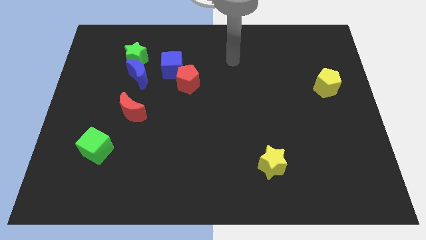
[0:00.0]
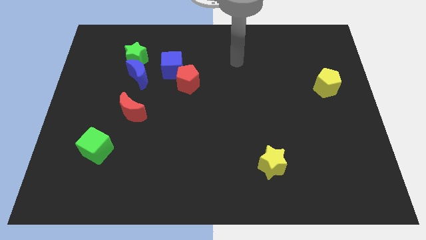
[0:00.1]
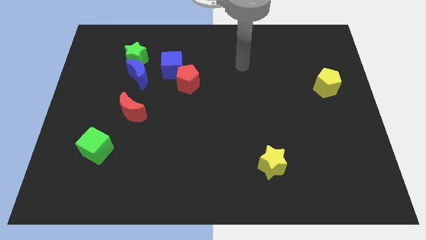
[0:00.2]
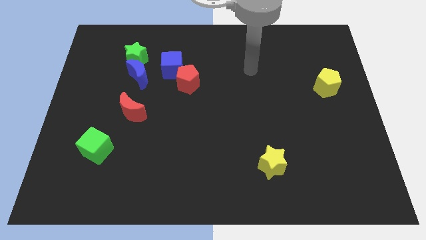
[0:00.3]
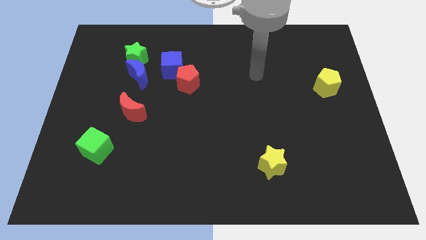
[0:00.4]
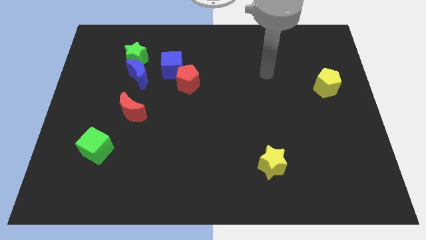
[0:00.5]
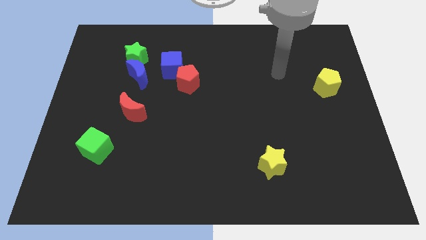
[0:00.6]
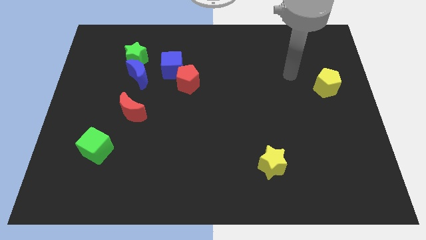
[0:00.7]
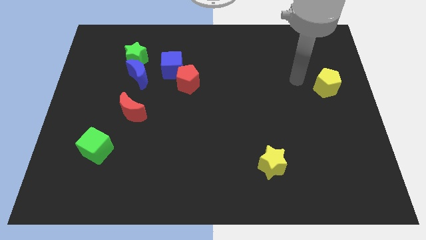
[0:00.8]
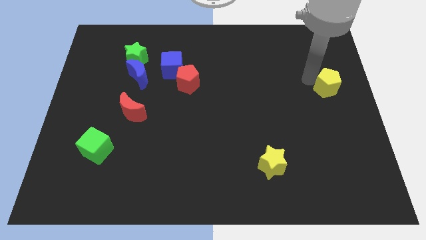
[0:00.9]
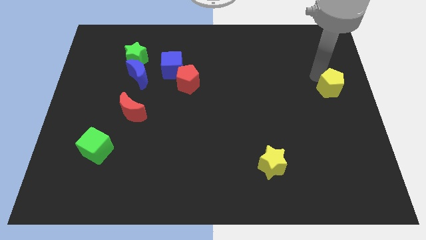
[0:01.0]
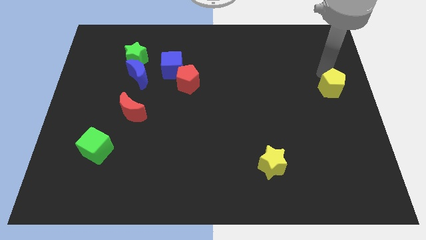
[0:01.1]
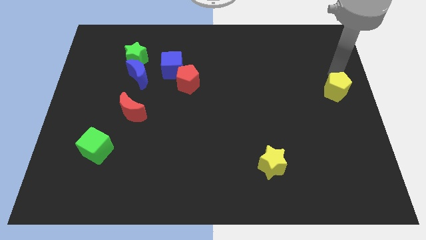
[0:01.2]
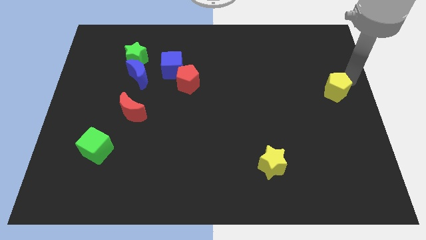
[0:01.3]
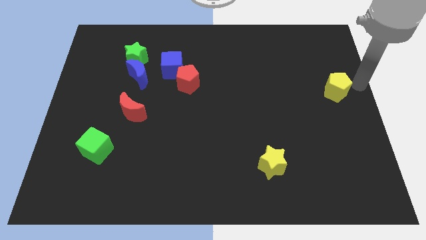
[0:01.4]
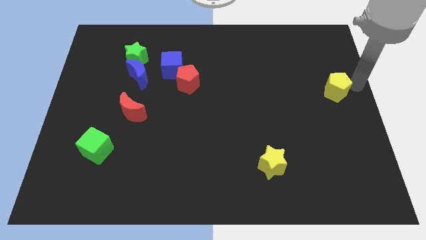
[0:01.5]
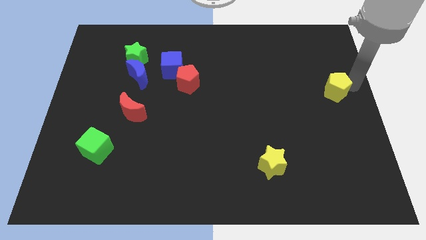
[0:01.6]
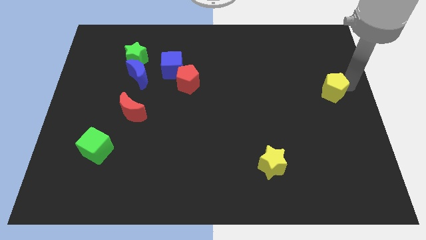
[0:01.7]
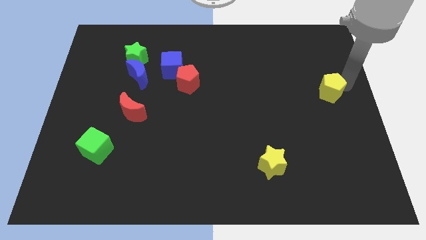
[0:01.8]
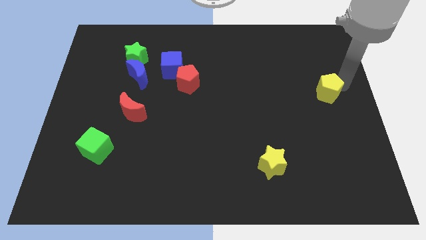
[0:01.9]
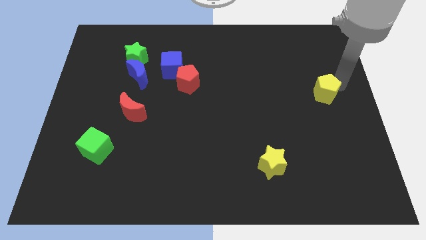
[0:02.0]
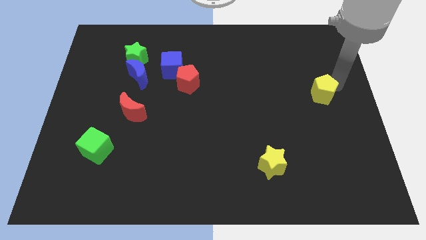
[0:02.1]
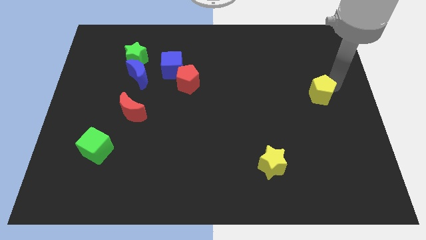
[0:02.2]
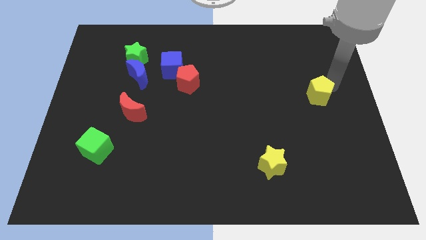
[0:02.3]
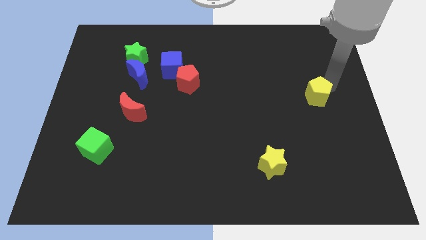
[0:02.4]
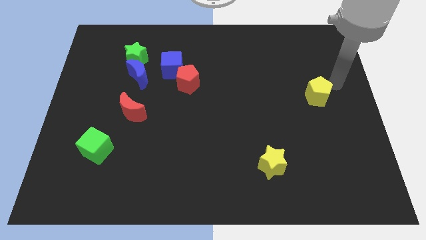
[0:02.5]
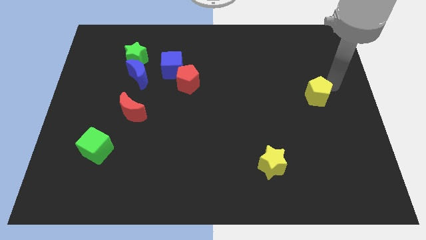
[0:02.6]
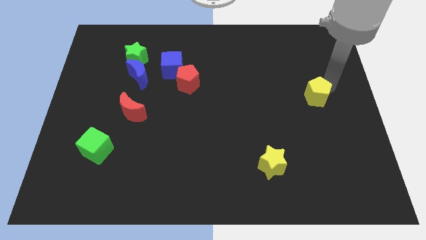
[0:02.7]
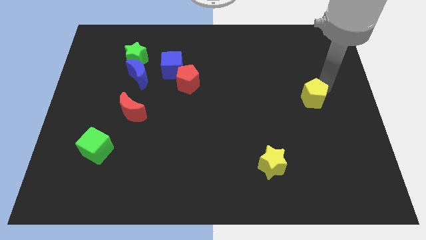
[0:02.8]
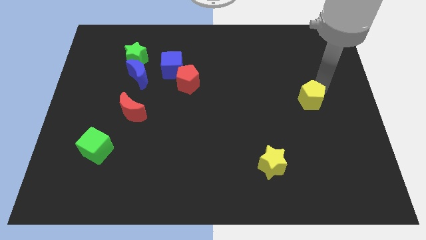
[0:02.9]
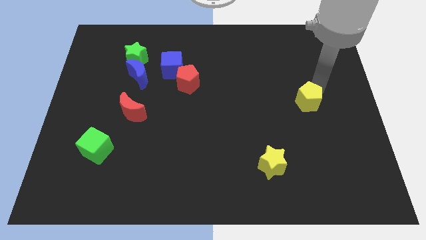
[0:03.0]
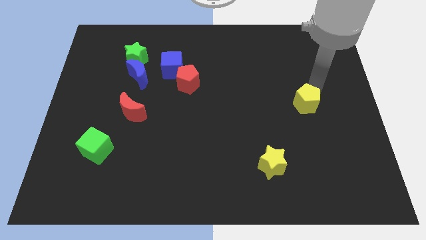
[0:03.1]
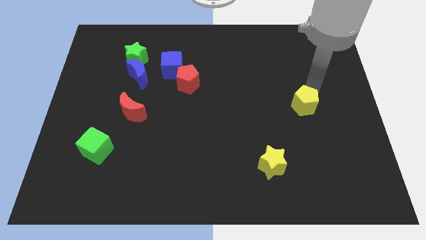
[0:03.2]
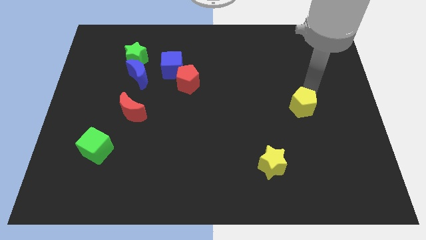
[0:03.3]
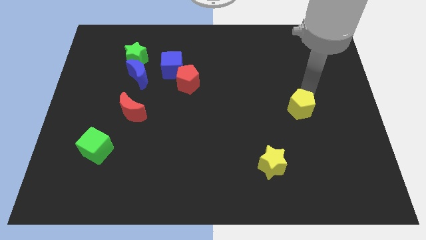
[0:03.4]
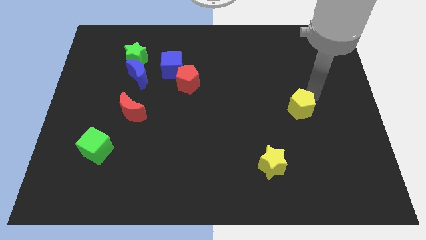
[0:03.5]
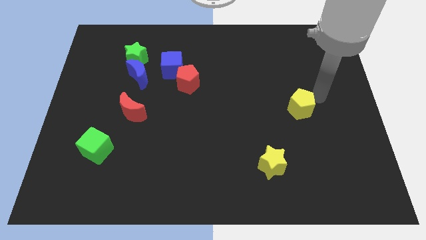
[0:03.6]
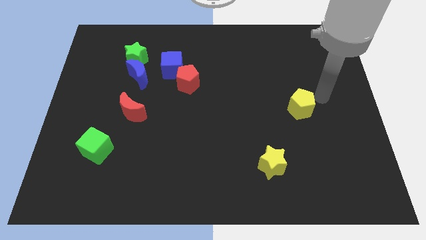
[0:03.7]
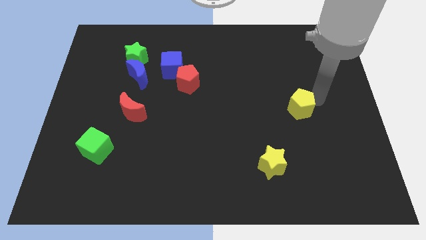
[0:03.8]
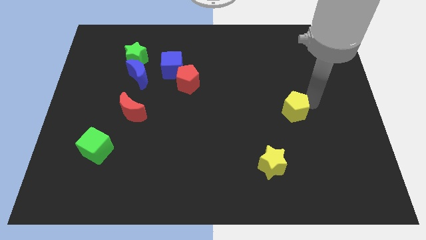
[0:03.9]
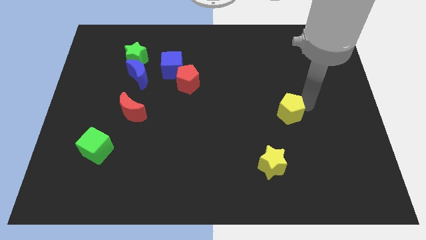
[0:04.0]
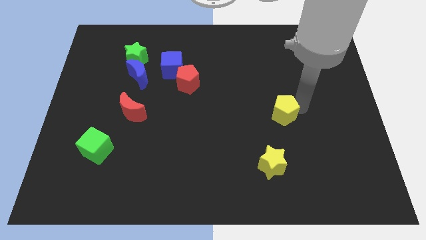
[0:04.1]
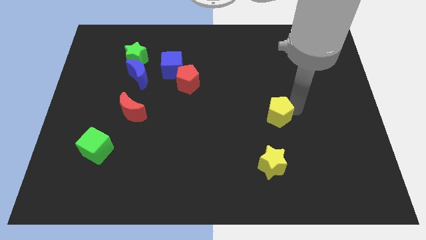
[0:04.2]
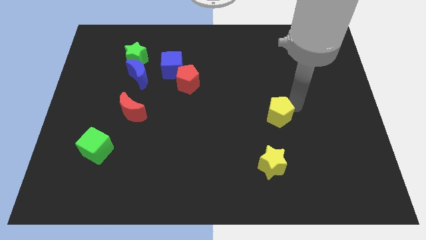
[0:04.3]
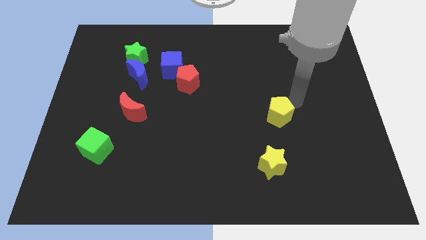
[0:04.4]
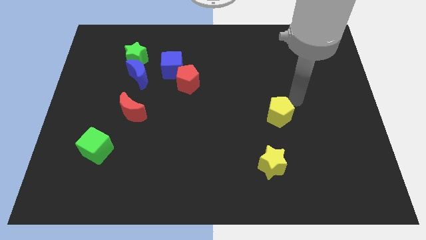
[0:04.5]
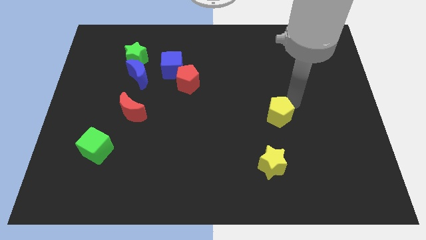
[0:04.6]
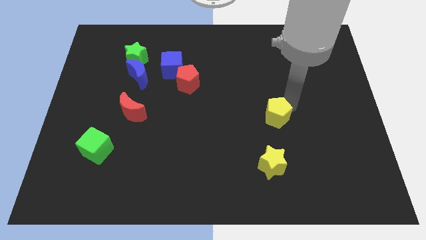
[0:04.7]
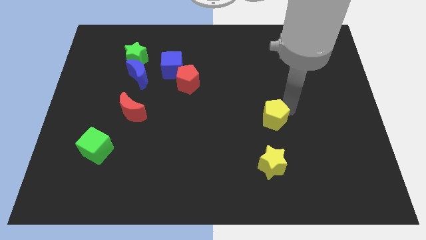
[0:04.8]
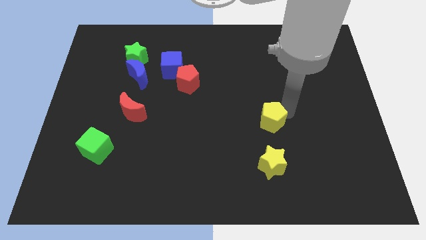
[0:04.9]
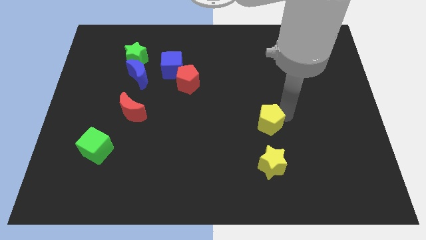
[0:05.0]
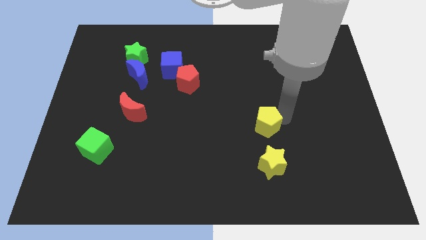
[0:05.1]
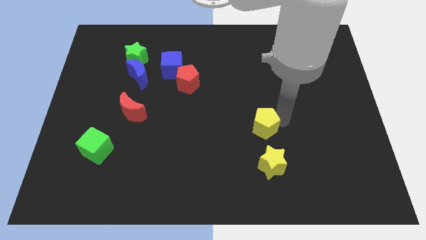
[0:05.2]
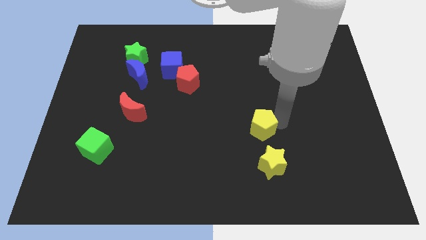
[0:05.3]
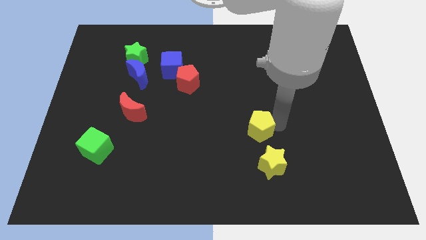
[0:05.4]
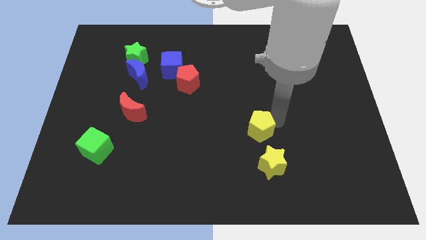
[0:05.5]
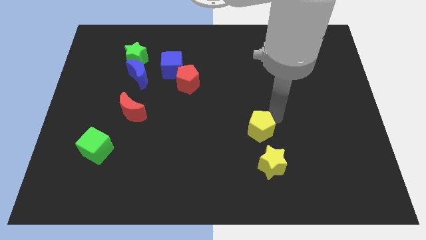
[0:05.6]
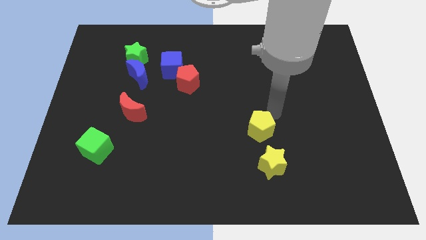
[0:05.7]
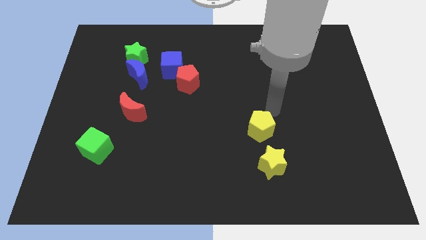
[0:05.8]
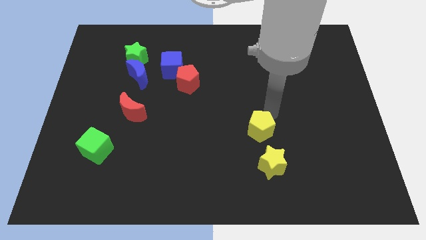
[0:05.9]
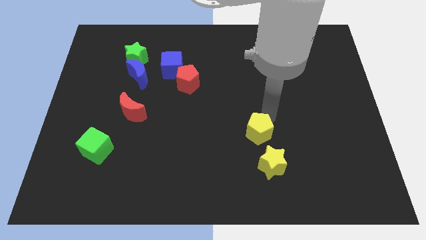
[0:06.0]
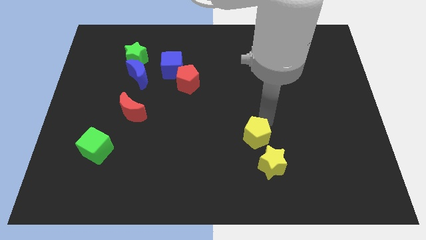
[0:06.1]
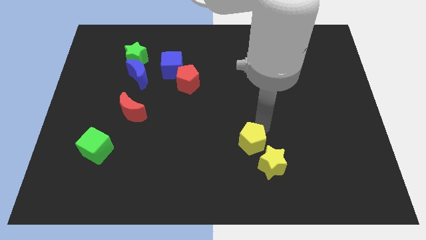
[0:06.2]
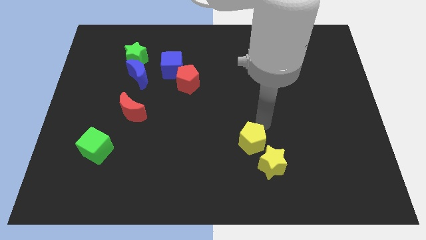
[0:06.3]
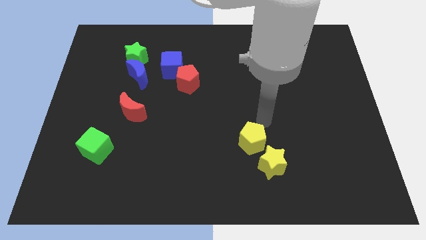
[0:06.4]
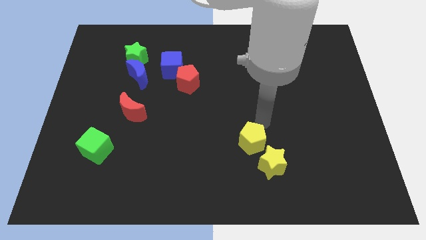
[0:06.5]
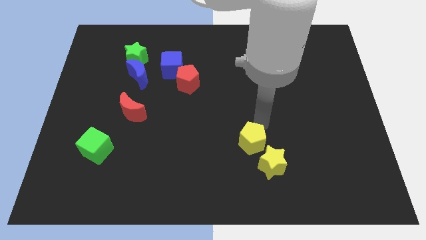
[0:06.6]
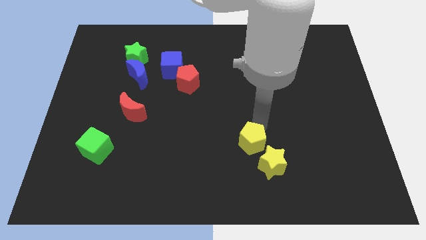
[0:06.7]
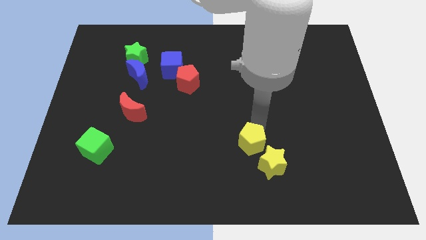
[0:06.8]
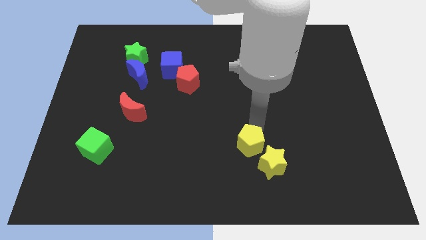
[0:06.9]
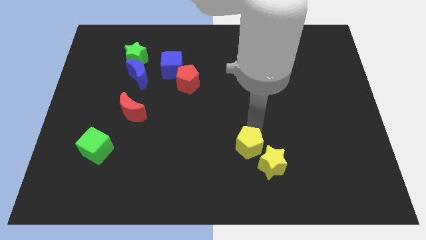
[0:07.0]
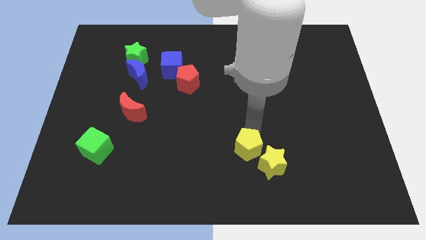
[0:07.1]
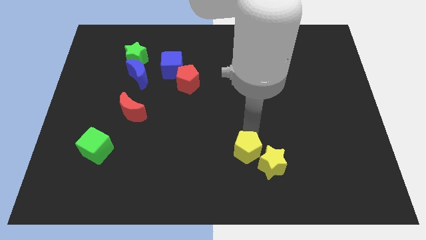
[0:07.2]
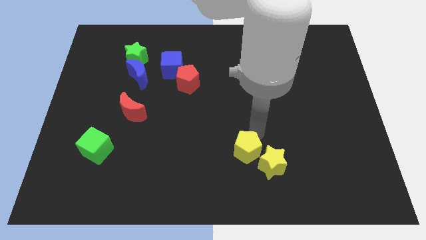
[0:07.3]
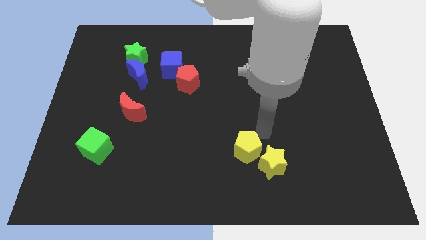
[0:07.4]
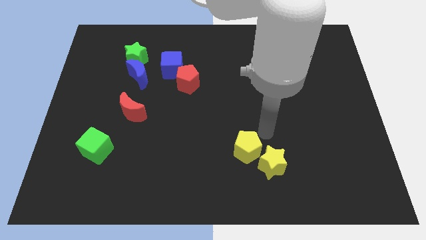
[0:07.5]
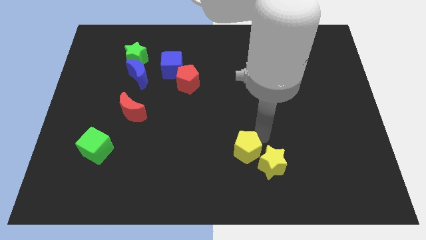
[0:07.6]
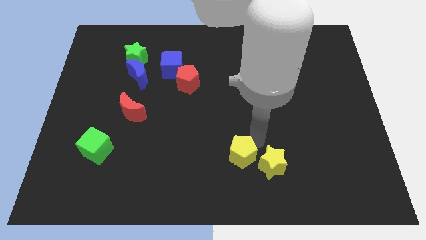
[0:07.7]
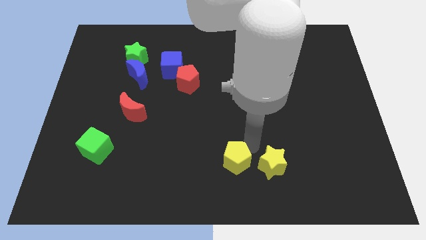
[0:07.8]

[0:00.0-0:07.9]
put the yellow pentagon to the bottom side
